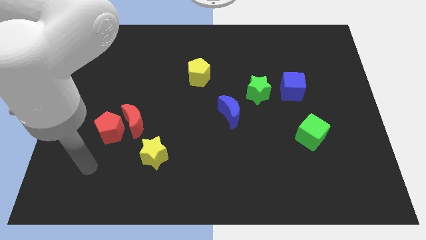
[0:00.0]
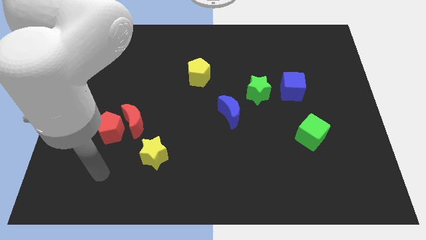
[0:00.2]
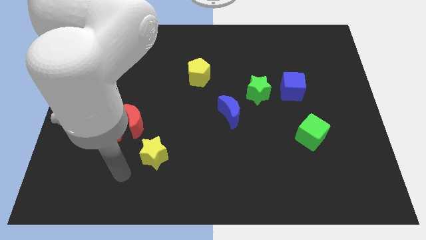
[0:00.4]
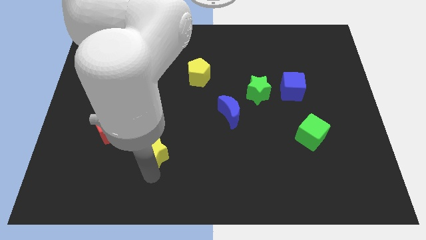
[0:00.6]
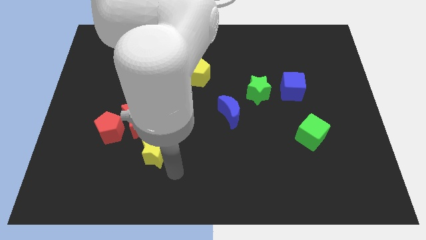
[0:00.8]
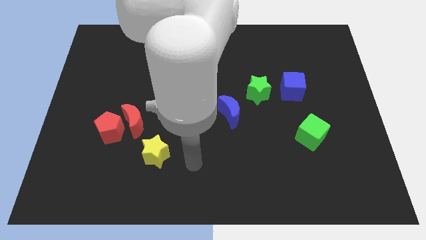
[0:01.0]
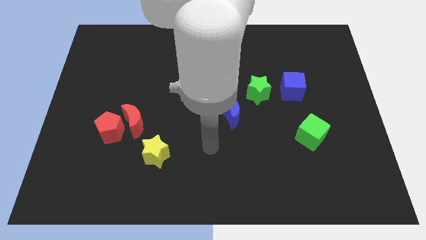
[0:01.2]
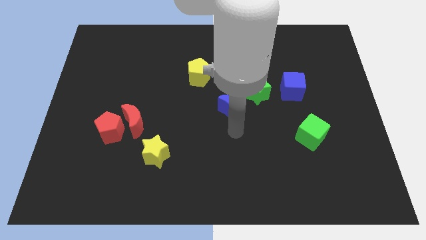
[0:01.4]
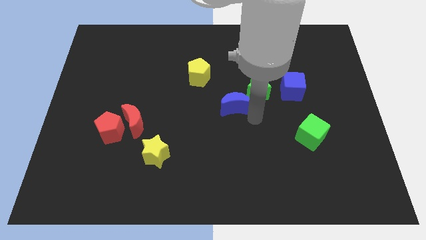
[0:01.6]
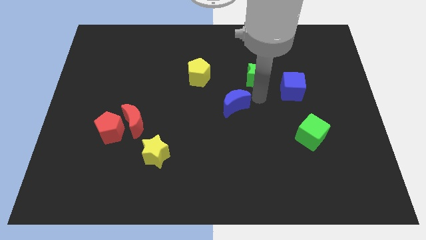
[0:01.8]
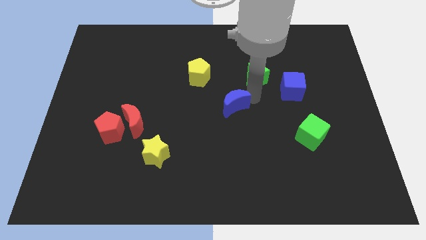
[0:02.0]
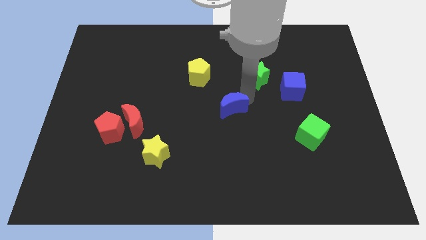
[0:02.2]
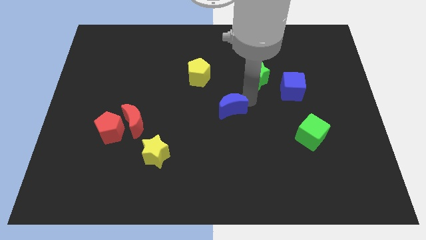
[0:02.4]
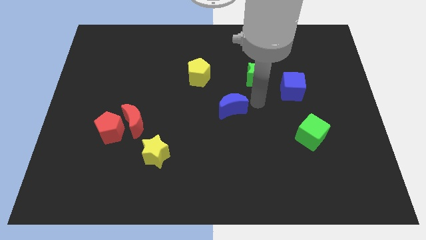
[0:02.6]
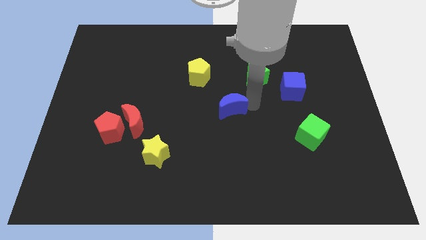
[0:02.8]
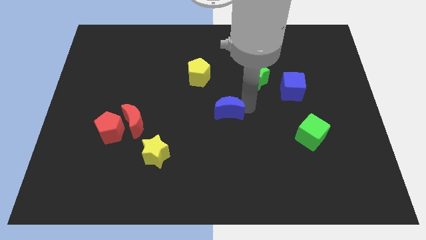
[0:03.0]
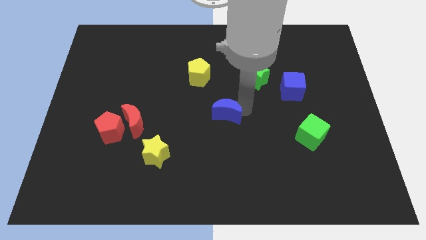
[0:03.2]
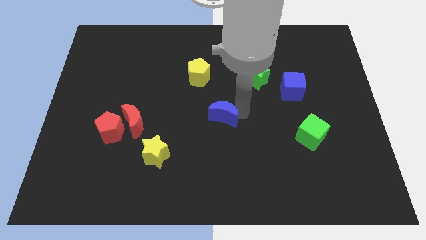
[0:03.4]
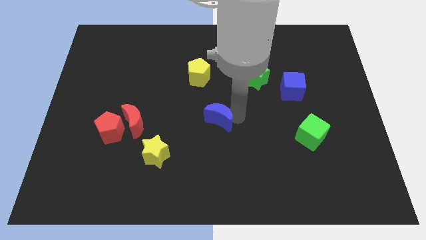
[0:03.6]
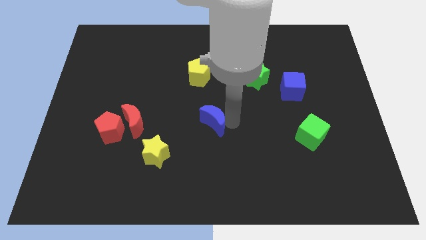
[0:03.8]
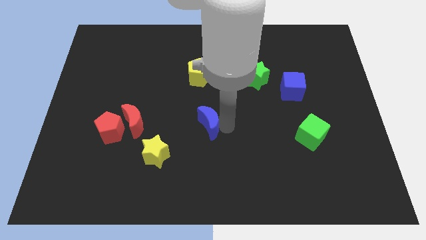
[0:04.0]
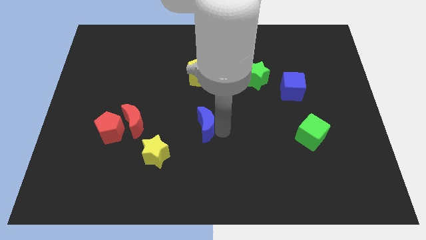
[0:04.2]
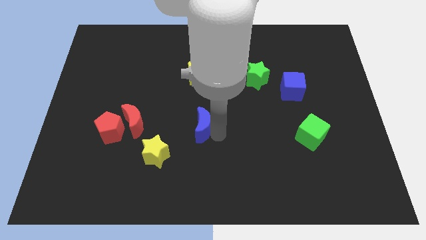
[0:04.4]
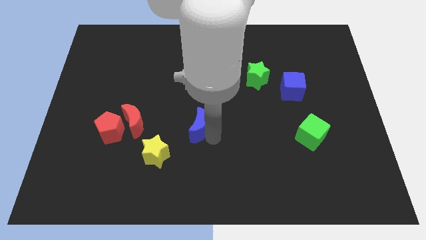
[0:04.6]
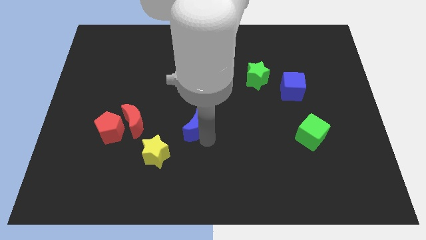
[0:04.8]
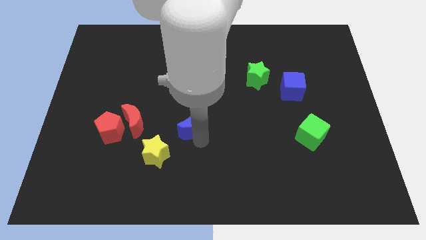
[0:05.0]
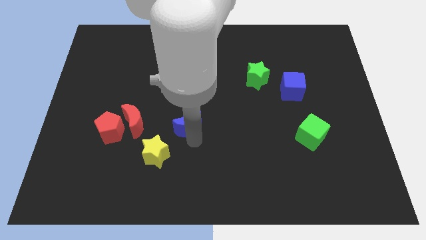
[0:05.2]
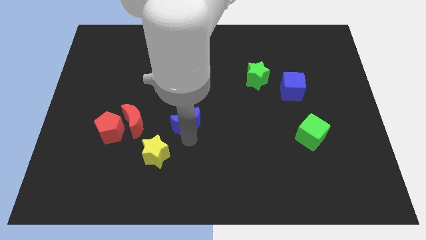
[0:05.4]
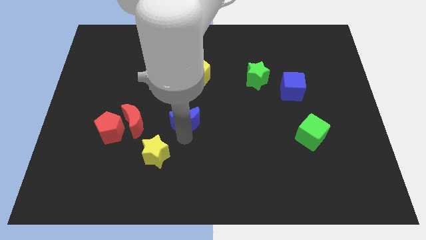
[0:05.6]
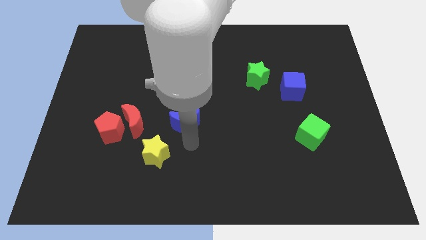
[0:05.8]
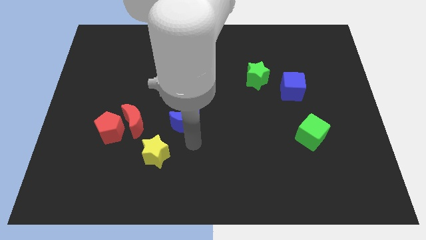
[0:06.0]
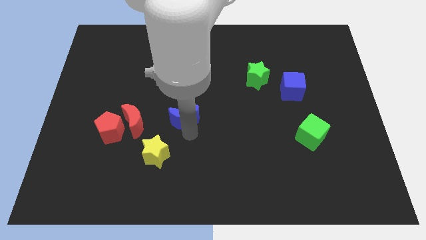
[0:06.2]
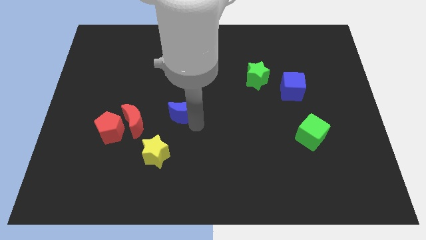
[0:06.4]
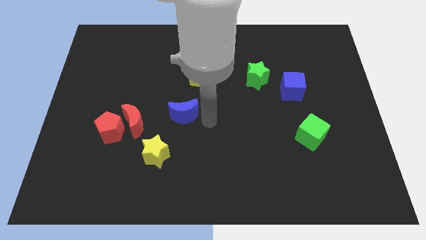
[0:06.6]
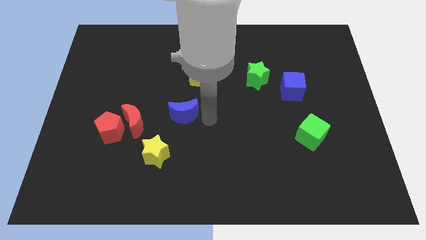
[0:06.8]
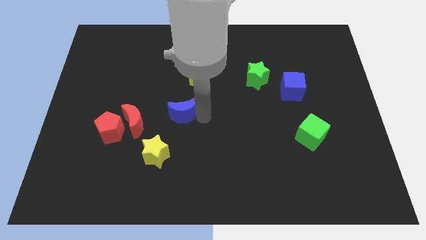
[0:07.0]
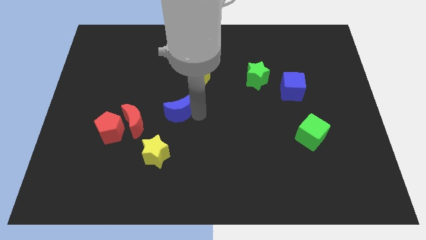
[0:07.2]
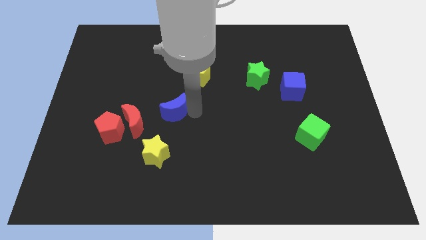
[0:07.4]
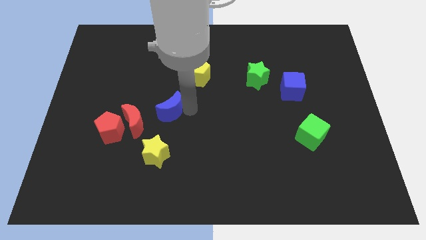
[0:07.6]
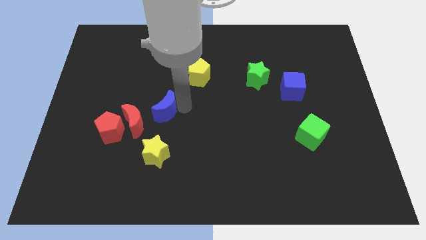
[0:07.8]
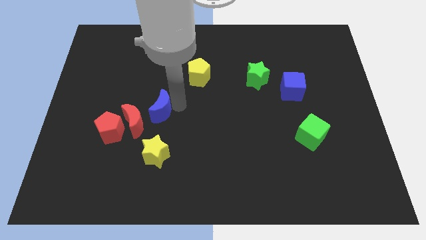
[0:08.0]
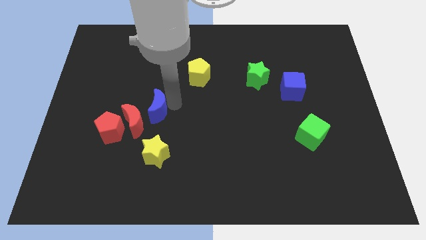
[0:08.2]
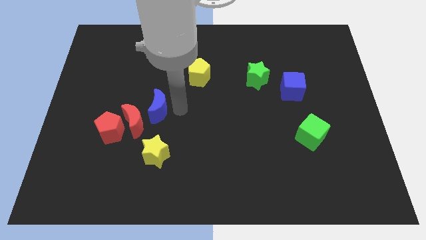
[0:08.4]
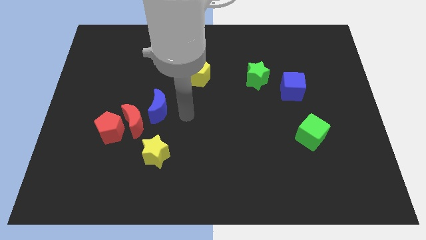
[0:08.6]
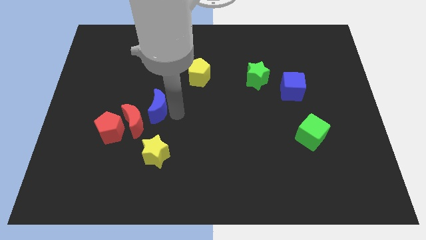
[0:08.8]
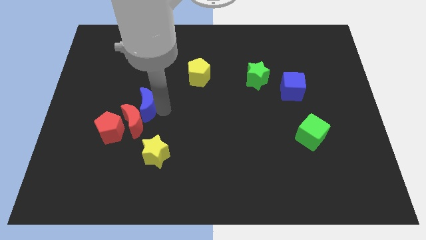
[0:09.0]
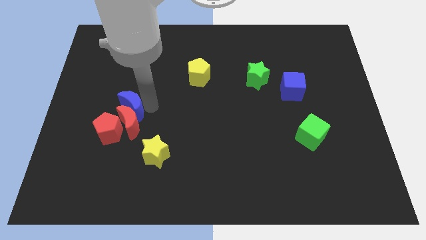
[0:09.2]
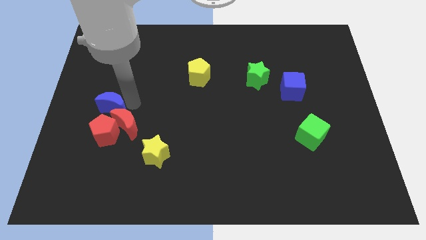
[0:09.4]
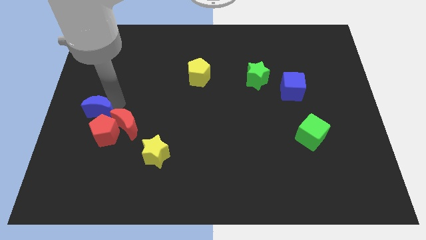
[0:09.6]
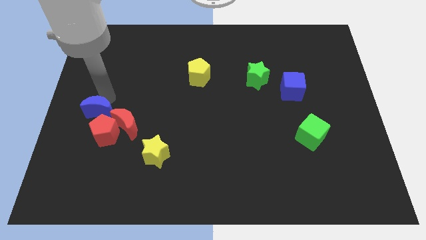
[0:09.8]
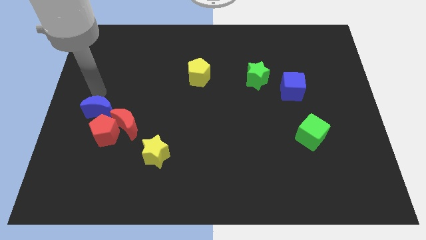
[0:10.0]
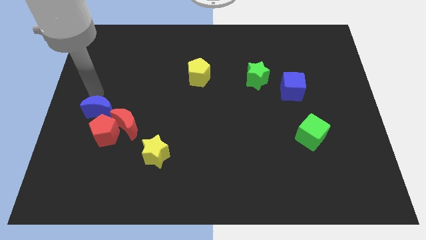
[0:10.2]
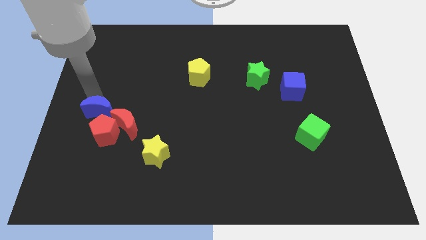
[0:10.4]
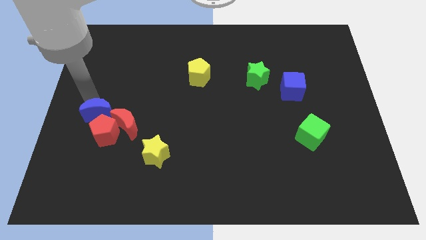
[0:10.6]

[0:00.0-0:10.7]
move the blue moon next to the red pentagon

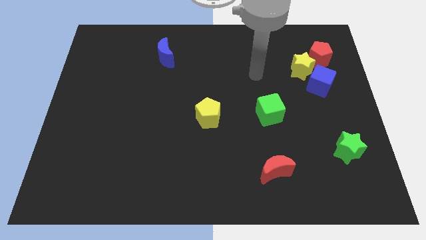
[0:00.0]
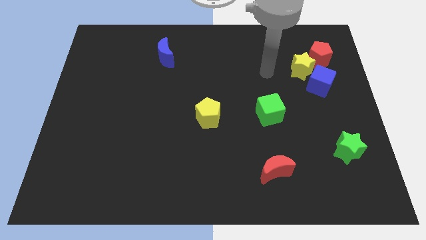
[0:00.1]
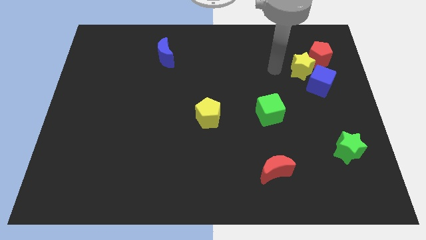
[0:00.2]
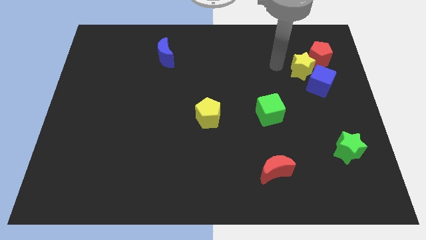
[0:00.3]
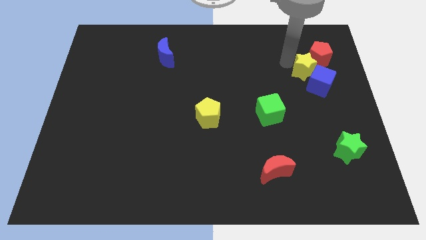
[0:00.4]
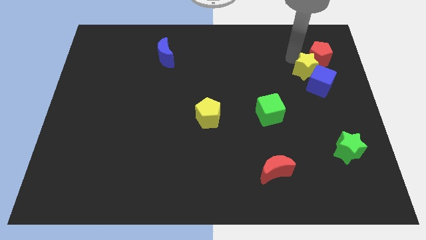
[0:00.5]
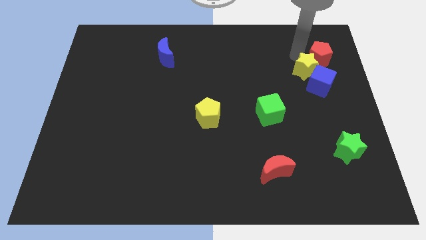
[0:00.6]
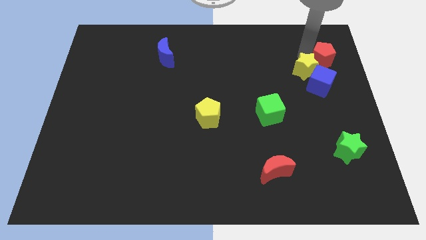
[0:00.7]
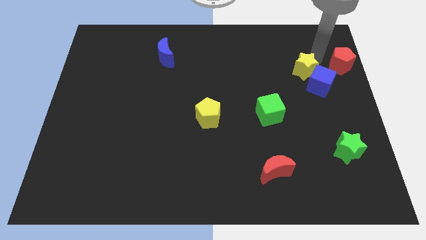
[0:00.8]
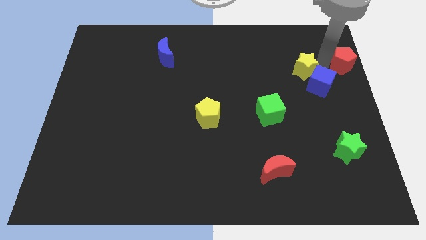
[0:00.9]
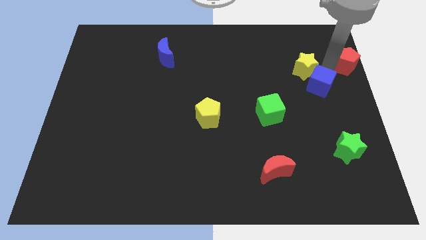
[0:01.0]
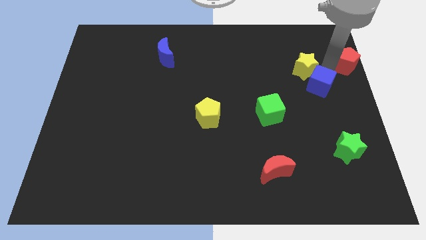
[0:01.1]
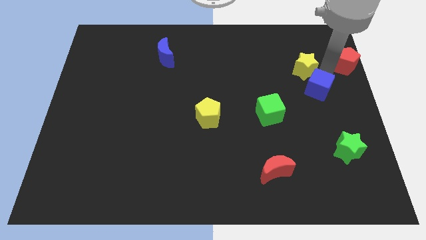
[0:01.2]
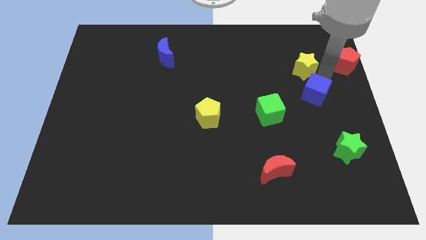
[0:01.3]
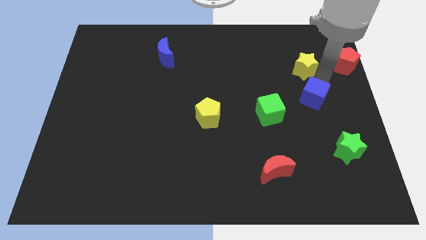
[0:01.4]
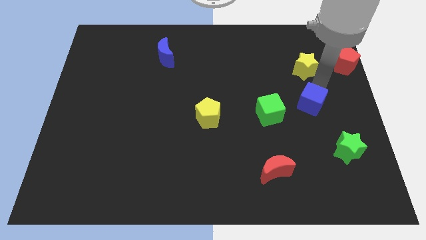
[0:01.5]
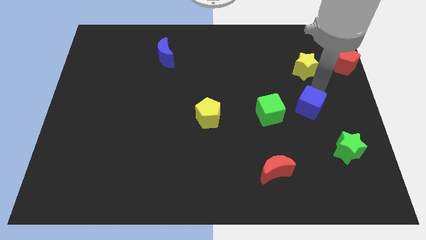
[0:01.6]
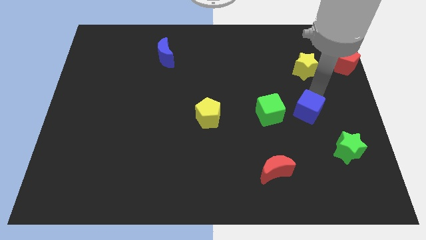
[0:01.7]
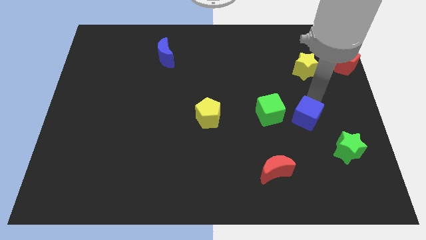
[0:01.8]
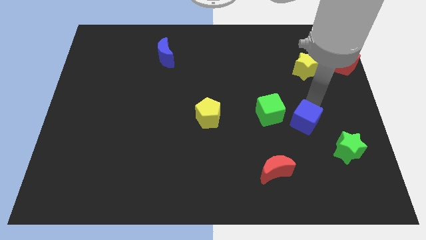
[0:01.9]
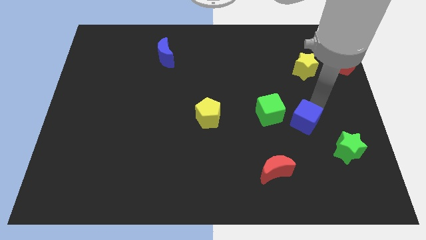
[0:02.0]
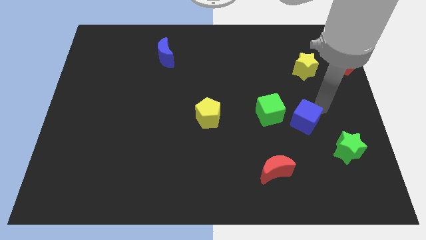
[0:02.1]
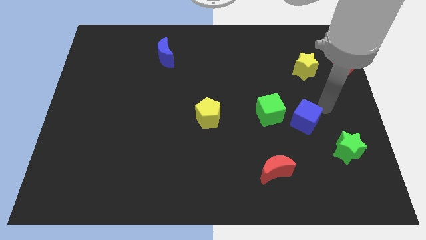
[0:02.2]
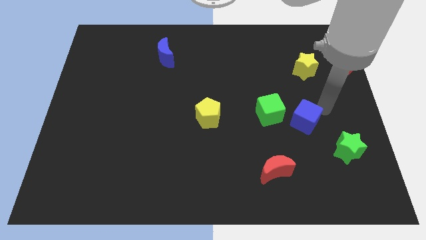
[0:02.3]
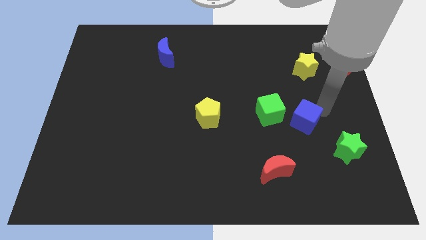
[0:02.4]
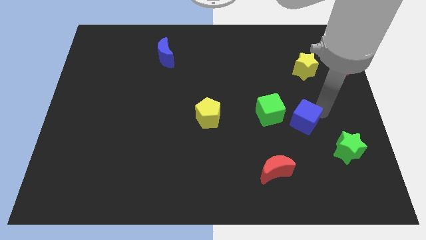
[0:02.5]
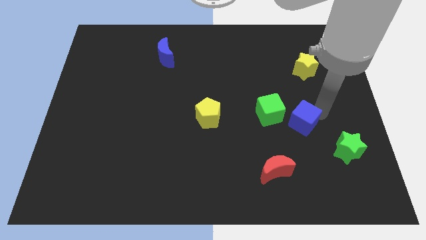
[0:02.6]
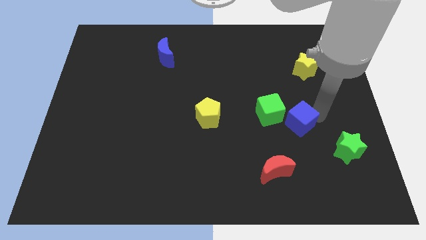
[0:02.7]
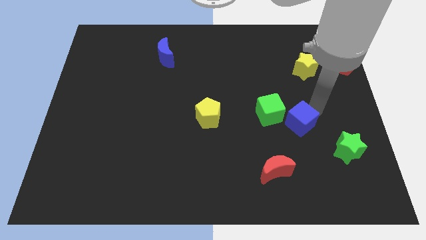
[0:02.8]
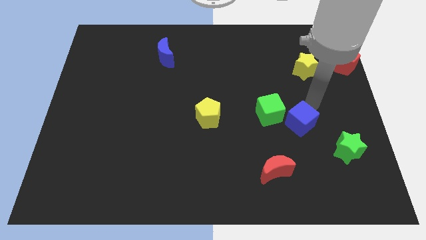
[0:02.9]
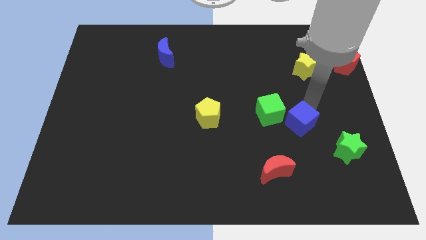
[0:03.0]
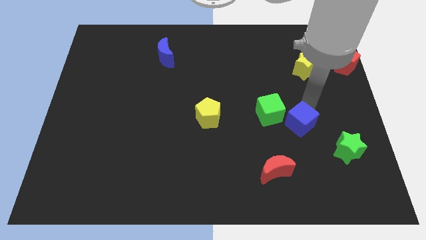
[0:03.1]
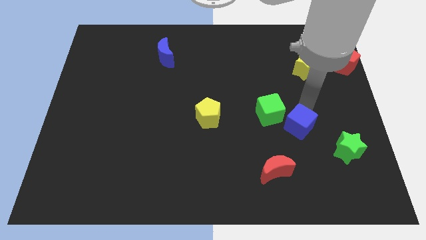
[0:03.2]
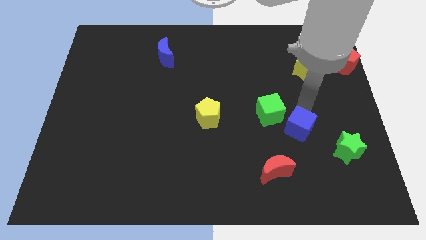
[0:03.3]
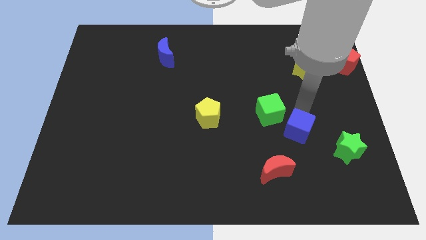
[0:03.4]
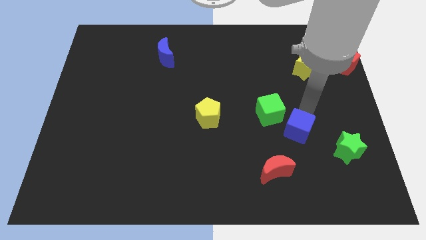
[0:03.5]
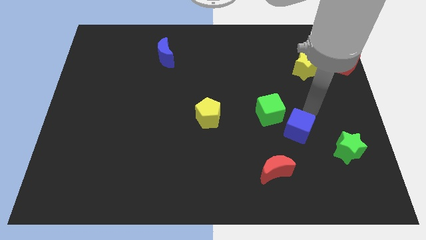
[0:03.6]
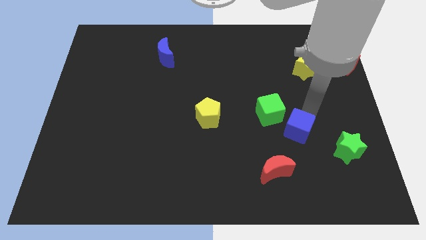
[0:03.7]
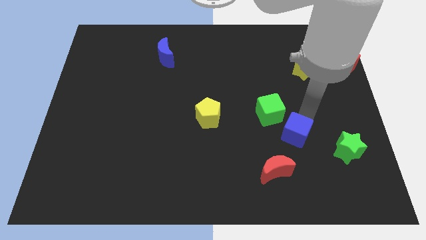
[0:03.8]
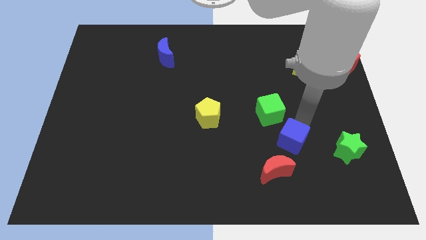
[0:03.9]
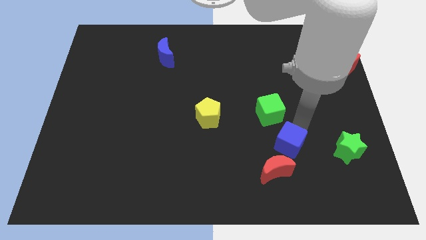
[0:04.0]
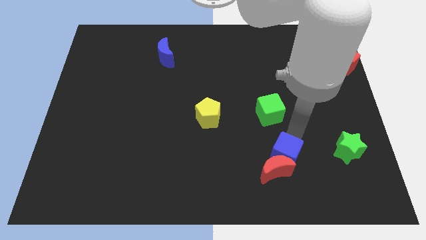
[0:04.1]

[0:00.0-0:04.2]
move the blue cube towards the red moon
